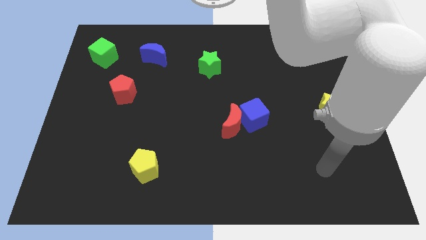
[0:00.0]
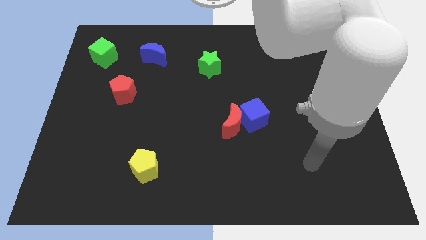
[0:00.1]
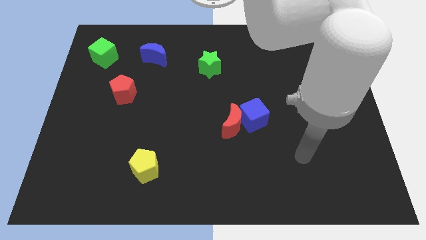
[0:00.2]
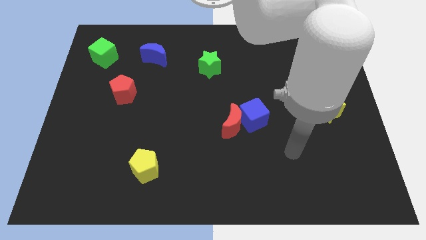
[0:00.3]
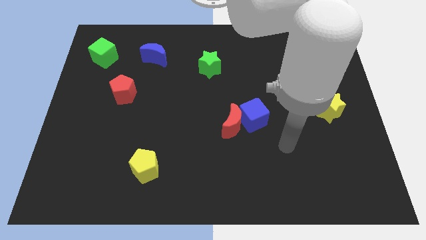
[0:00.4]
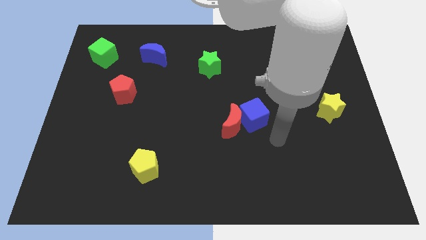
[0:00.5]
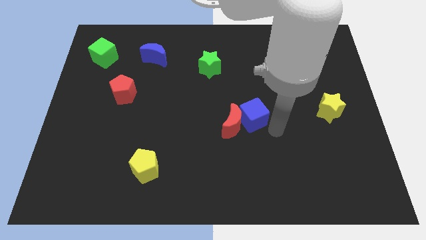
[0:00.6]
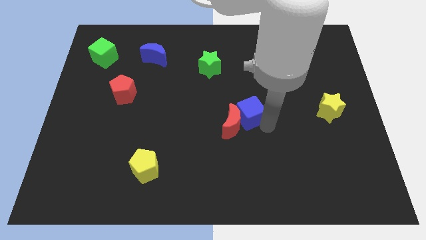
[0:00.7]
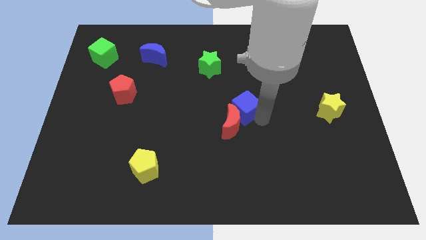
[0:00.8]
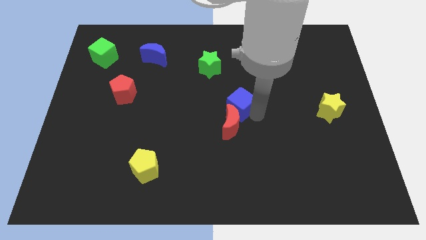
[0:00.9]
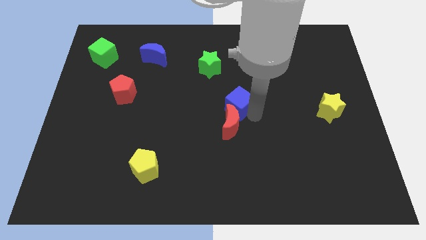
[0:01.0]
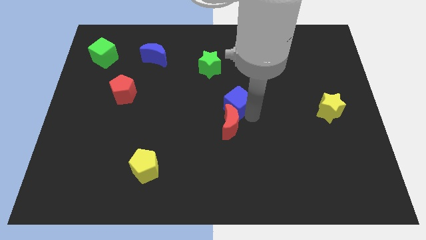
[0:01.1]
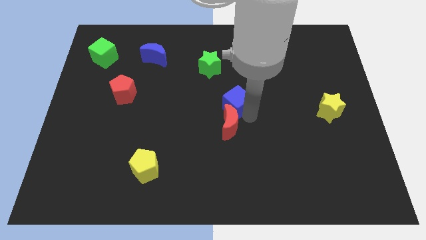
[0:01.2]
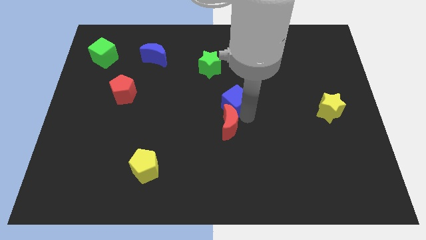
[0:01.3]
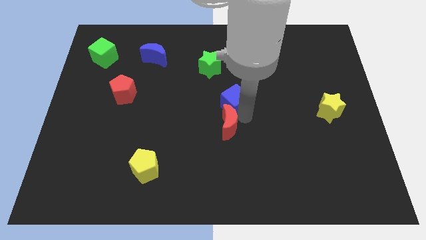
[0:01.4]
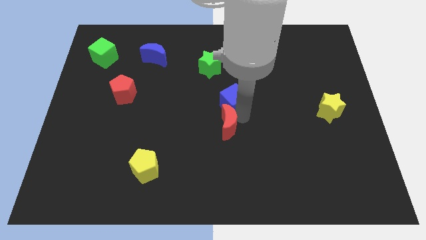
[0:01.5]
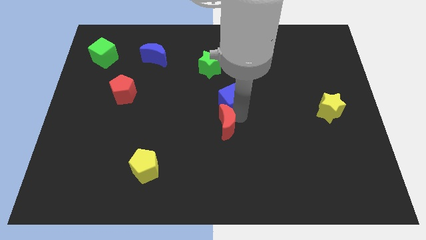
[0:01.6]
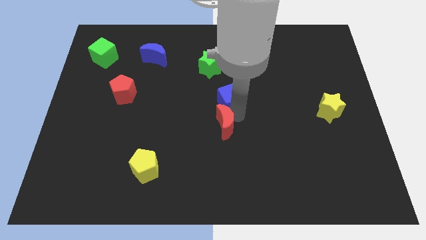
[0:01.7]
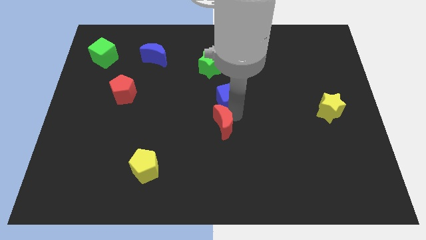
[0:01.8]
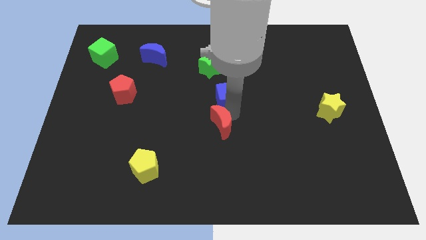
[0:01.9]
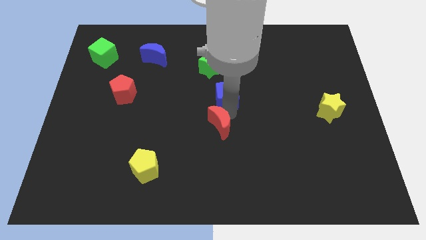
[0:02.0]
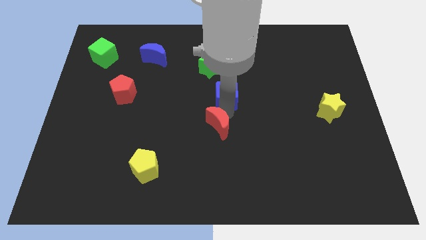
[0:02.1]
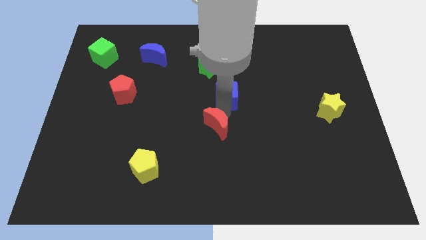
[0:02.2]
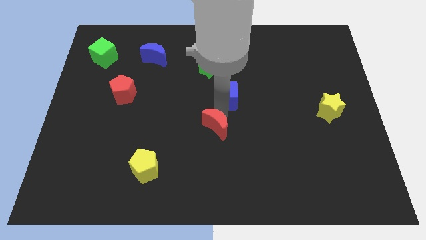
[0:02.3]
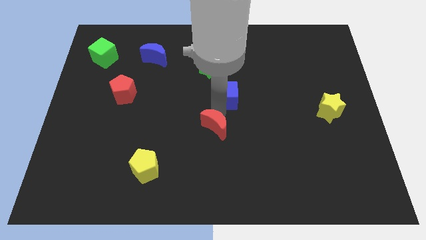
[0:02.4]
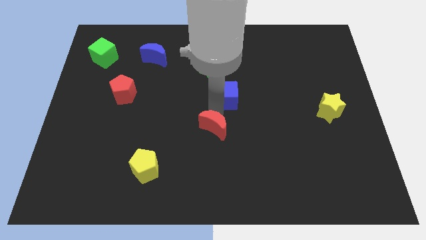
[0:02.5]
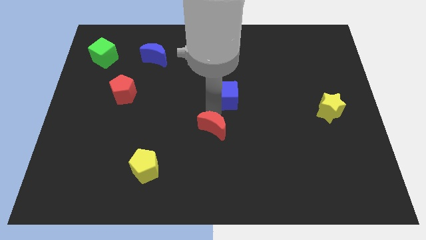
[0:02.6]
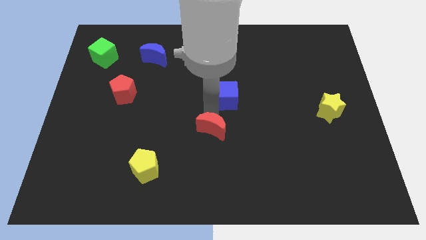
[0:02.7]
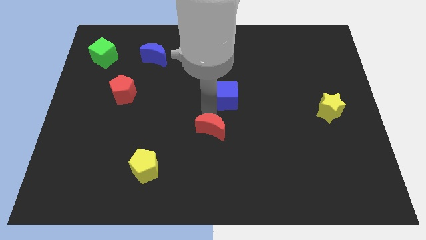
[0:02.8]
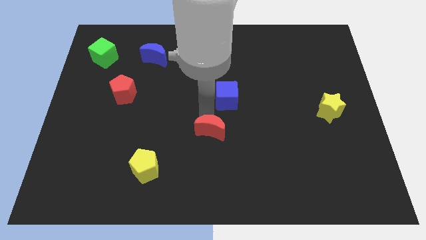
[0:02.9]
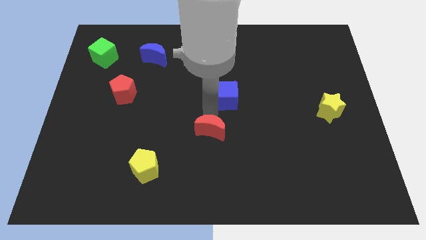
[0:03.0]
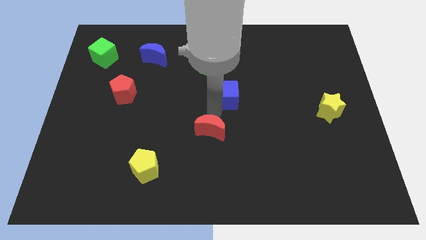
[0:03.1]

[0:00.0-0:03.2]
pull the red moon apart from the blue cube

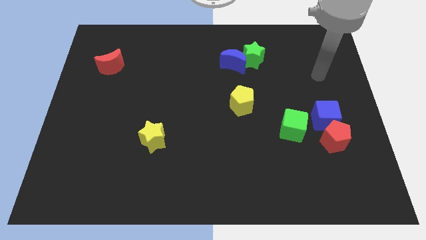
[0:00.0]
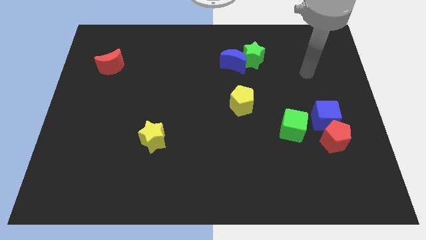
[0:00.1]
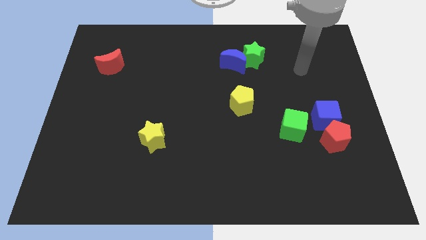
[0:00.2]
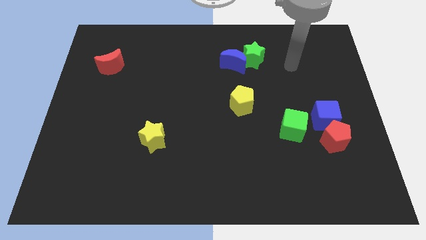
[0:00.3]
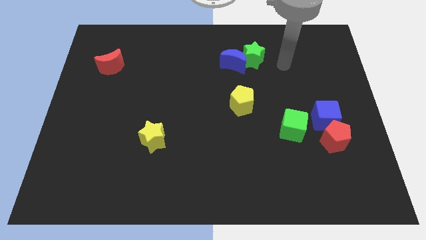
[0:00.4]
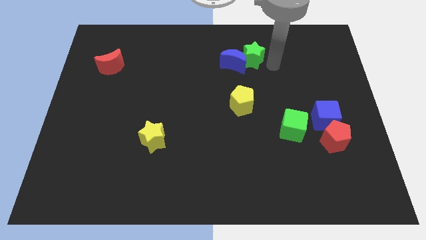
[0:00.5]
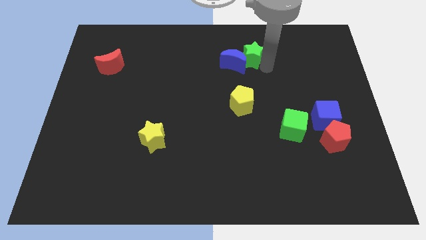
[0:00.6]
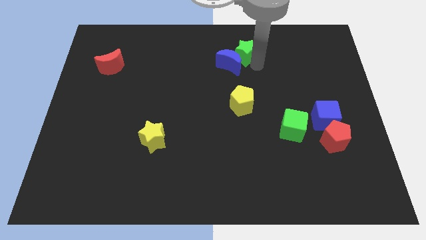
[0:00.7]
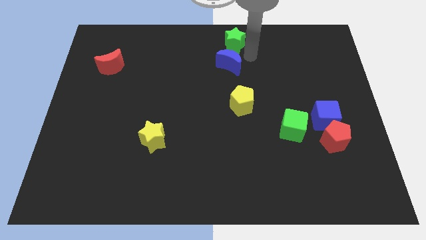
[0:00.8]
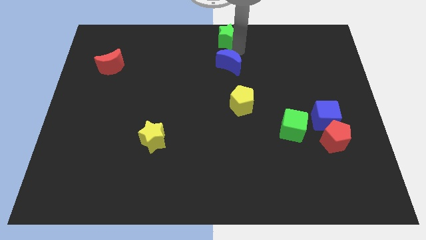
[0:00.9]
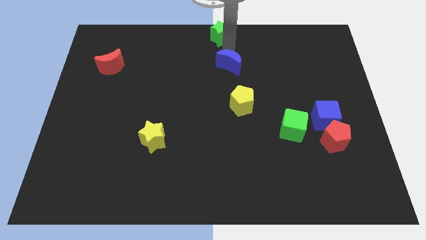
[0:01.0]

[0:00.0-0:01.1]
separate the blue moon from the green star

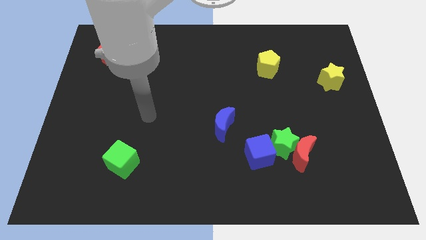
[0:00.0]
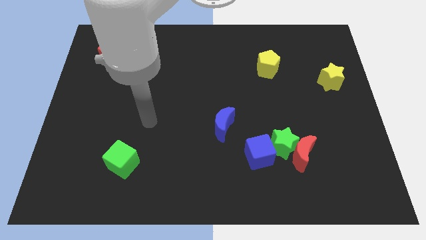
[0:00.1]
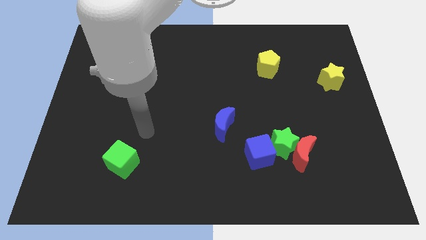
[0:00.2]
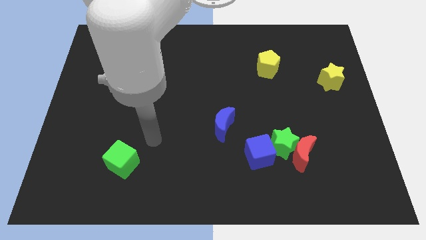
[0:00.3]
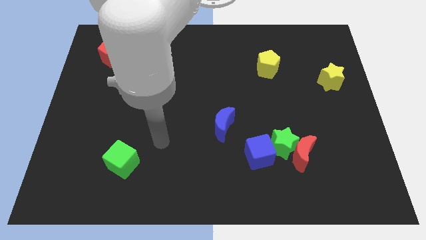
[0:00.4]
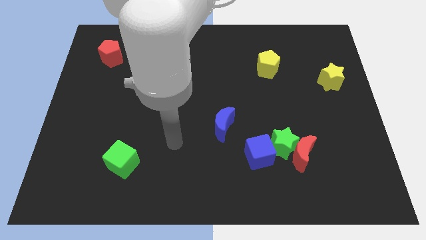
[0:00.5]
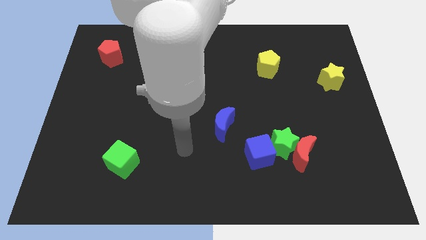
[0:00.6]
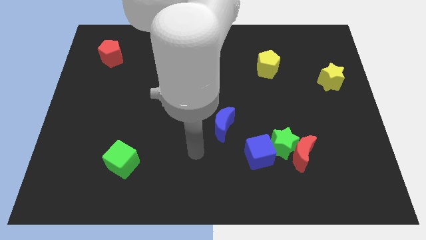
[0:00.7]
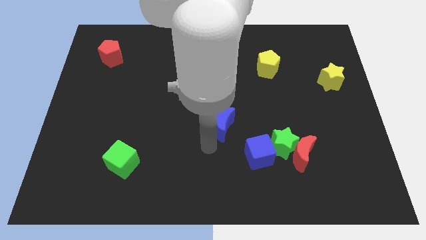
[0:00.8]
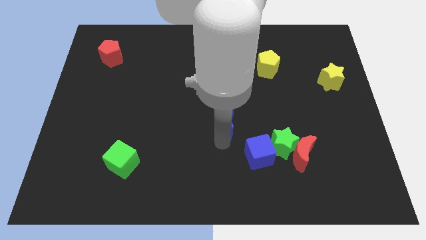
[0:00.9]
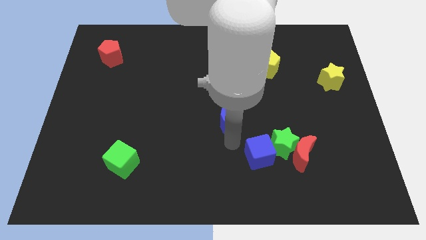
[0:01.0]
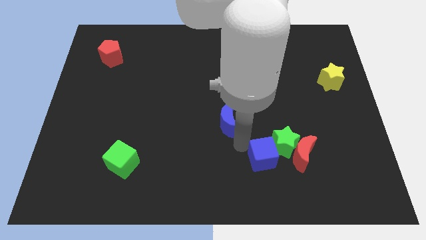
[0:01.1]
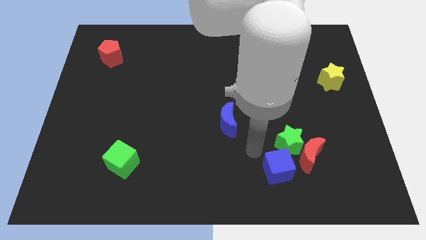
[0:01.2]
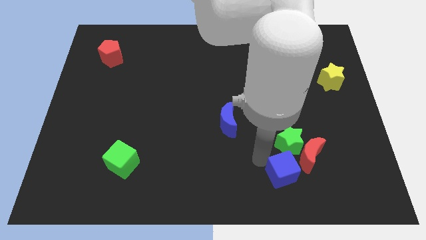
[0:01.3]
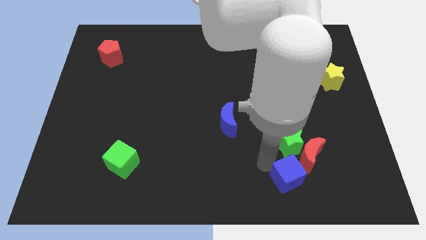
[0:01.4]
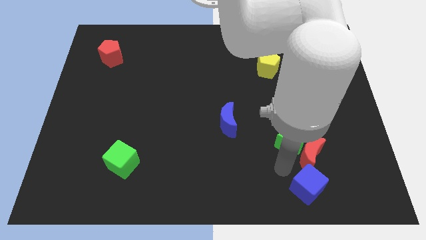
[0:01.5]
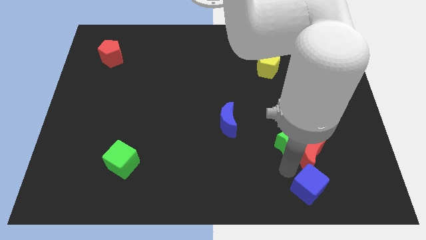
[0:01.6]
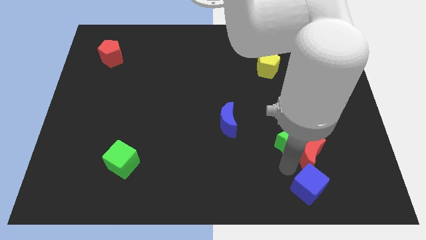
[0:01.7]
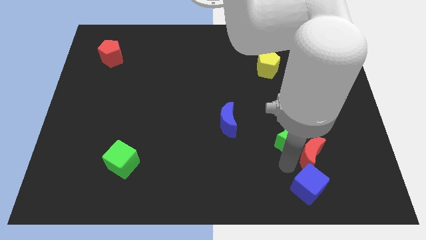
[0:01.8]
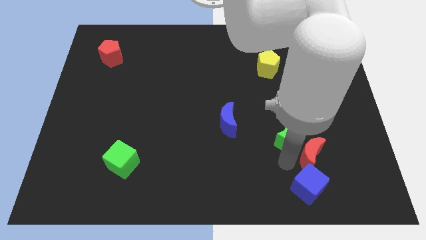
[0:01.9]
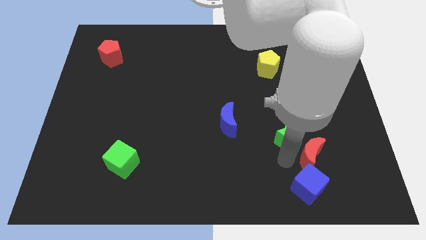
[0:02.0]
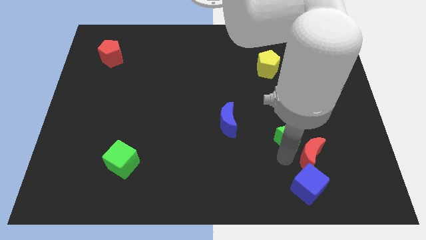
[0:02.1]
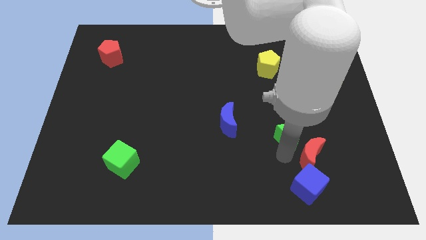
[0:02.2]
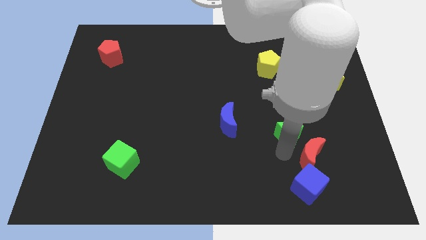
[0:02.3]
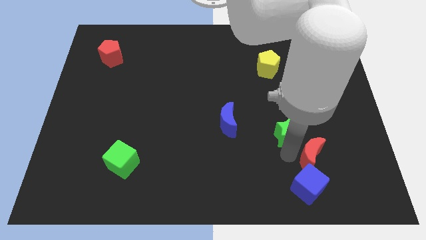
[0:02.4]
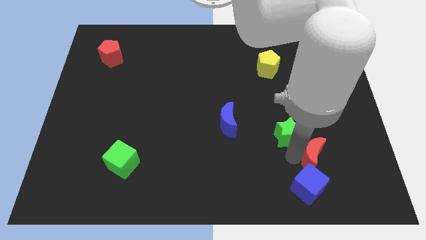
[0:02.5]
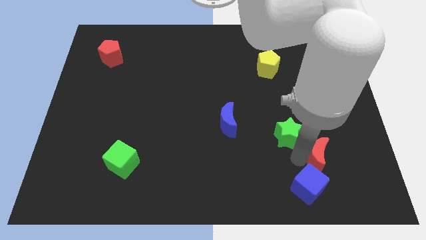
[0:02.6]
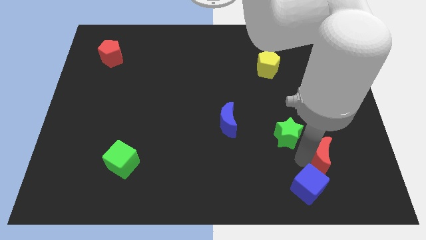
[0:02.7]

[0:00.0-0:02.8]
separate the green star from the red moon and blue cube

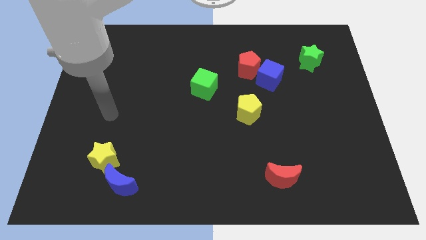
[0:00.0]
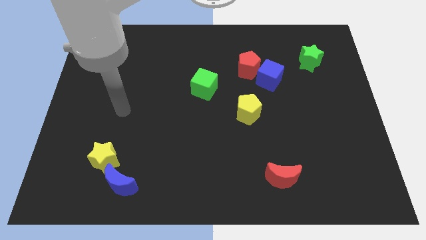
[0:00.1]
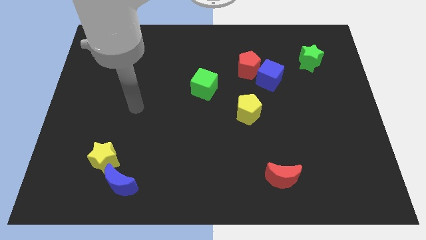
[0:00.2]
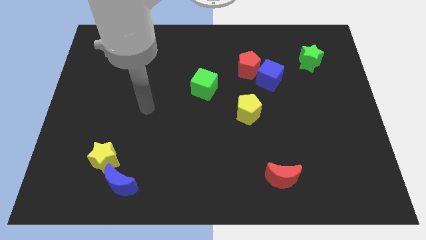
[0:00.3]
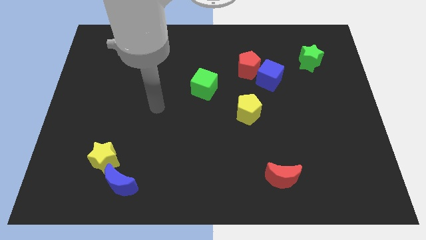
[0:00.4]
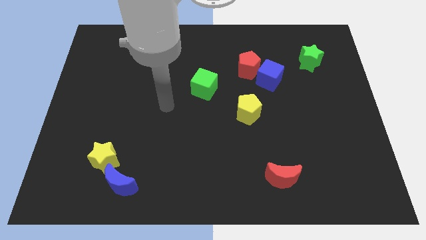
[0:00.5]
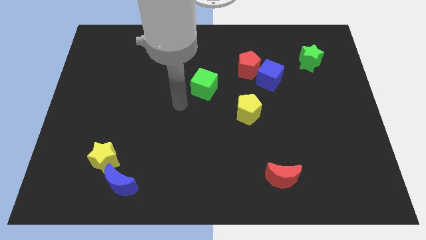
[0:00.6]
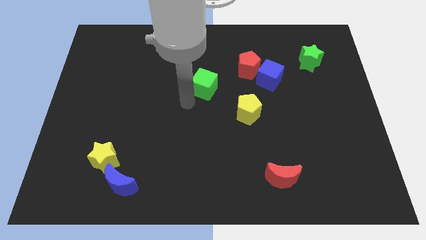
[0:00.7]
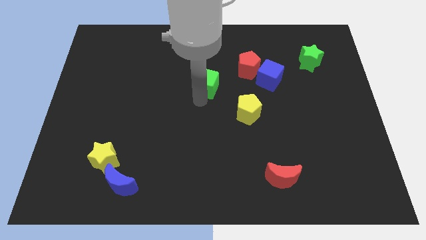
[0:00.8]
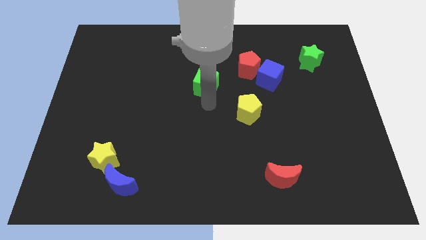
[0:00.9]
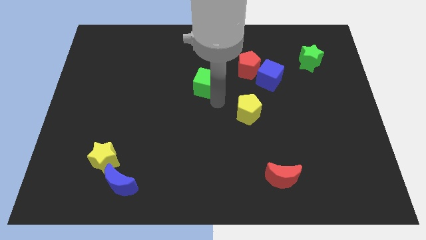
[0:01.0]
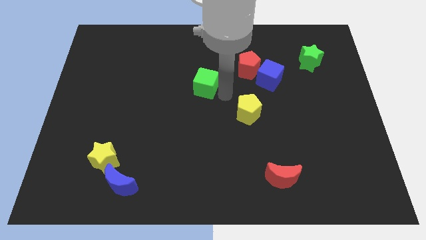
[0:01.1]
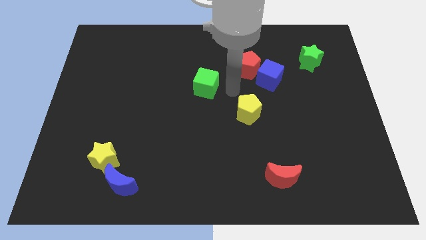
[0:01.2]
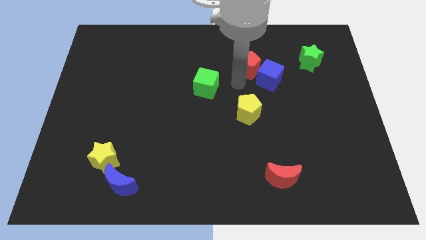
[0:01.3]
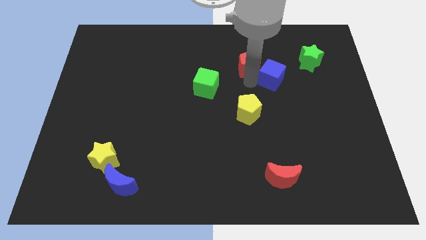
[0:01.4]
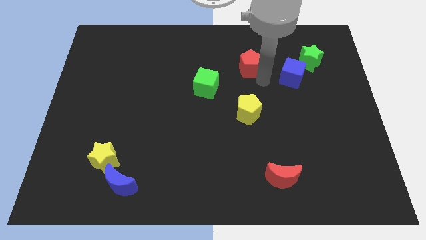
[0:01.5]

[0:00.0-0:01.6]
move the red pentagon away from the blue cube

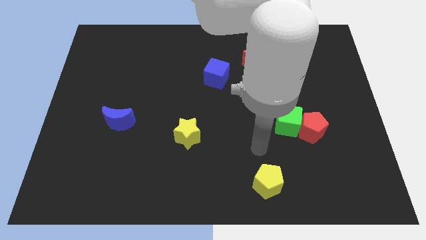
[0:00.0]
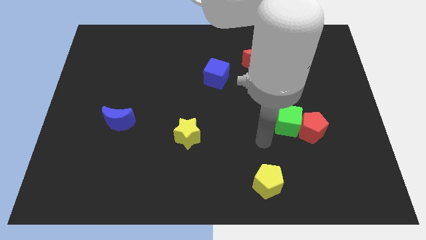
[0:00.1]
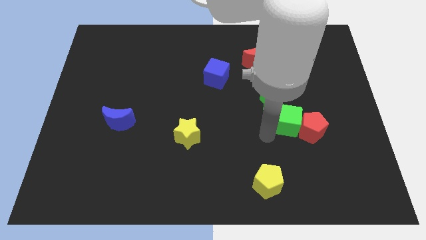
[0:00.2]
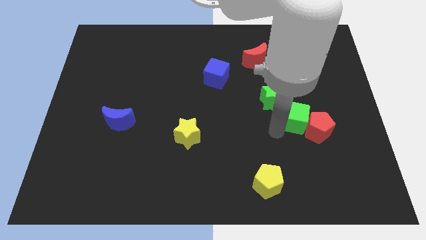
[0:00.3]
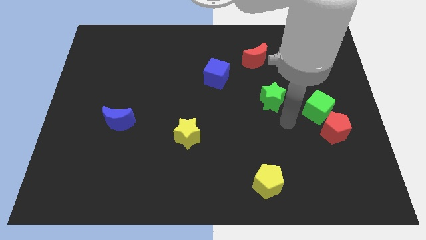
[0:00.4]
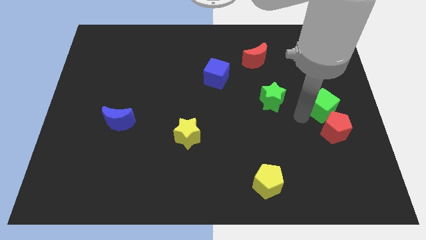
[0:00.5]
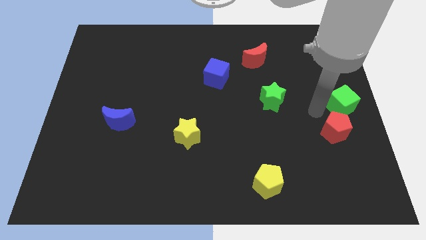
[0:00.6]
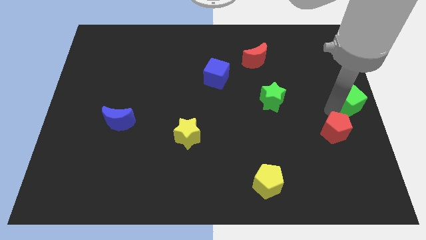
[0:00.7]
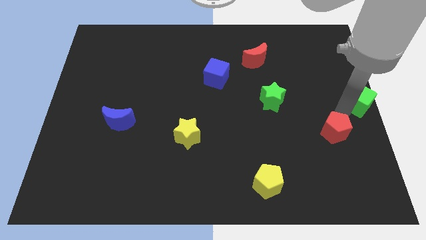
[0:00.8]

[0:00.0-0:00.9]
separate the red pentagon from the green cube
